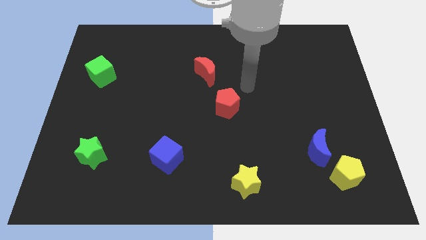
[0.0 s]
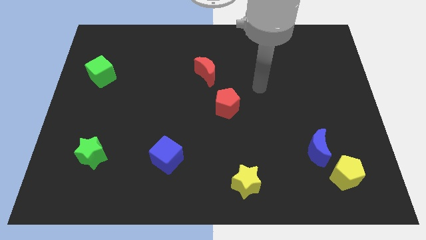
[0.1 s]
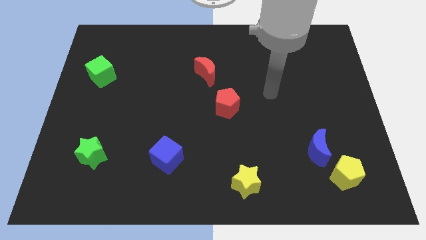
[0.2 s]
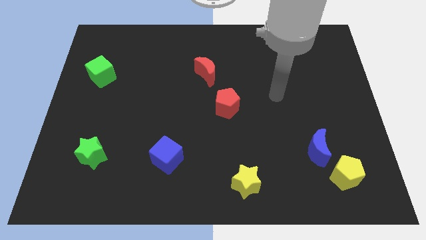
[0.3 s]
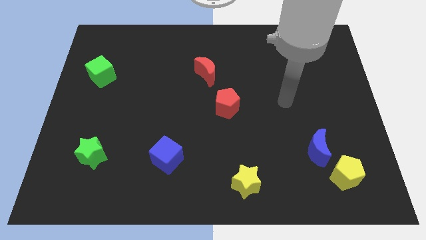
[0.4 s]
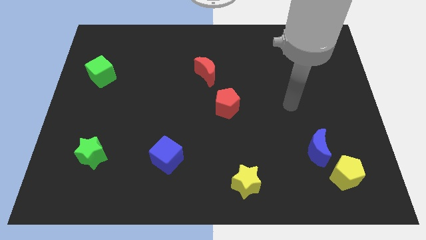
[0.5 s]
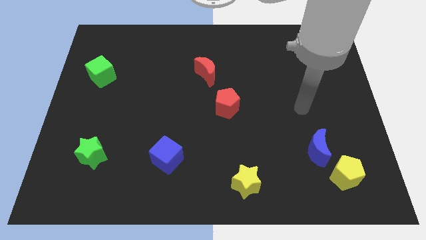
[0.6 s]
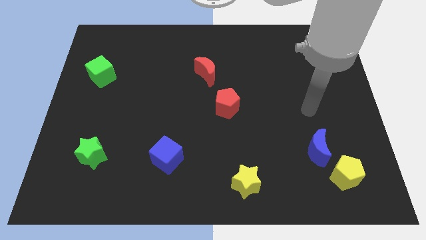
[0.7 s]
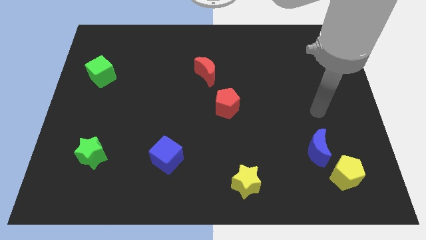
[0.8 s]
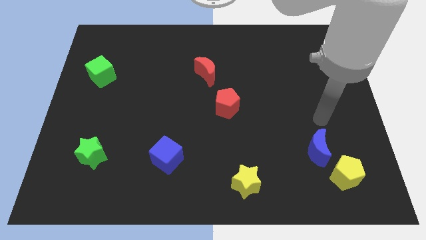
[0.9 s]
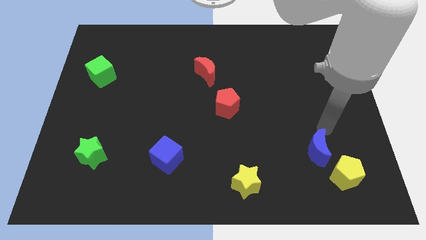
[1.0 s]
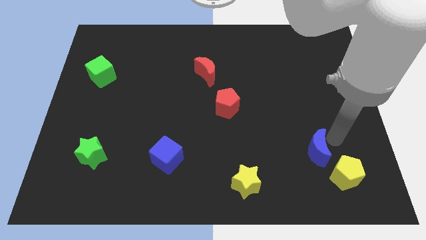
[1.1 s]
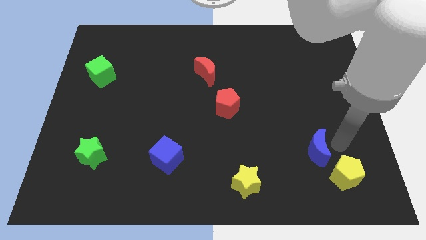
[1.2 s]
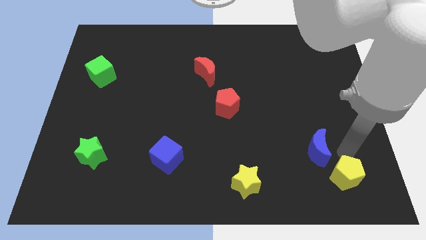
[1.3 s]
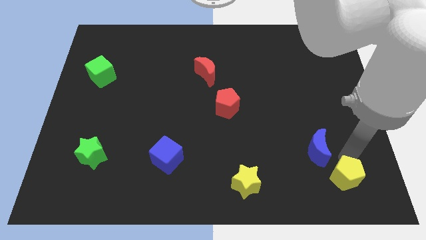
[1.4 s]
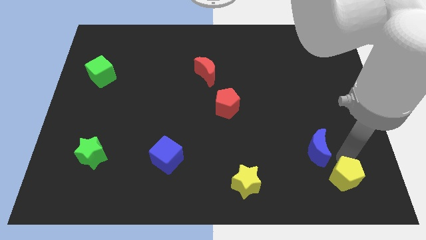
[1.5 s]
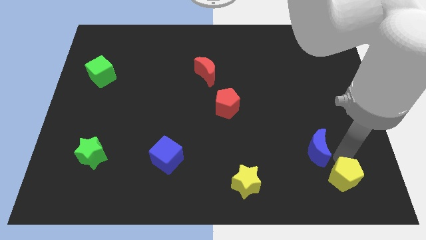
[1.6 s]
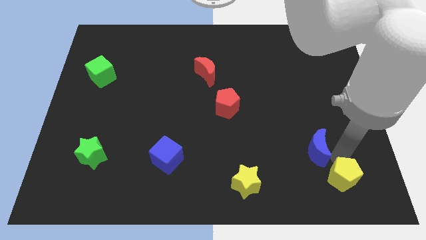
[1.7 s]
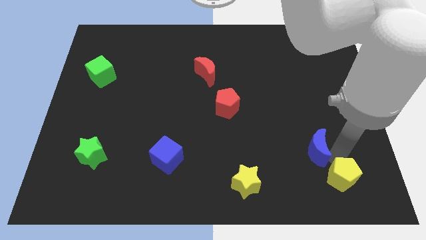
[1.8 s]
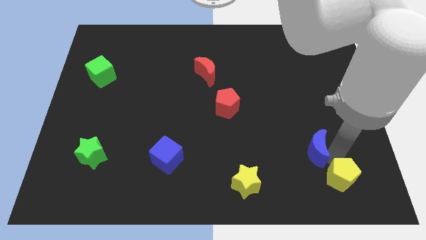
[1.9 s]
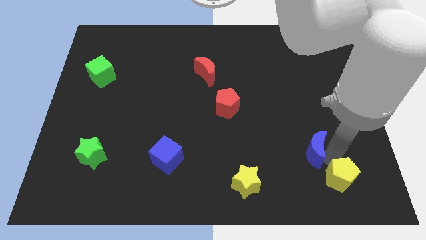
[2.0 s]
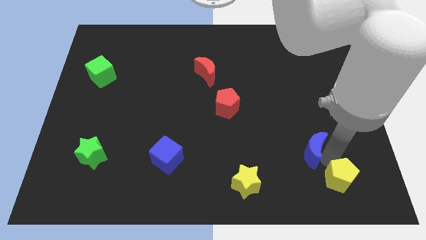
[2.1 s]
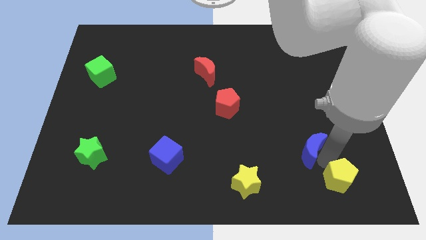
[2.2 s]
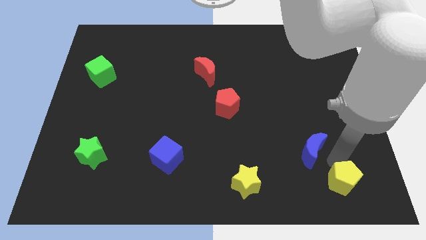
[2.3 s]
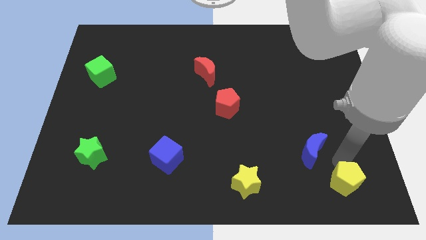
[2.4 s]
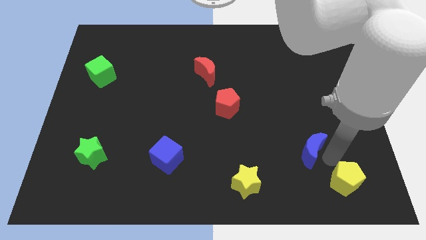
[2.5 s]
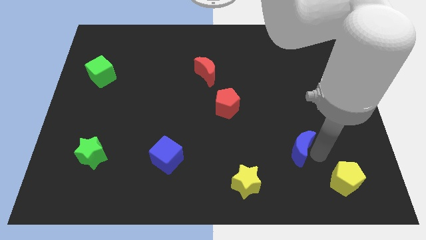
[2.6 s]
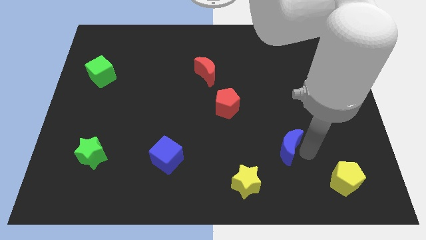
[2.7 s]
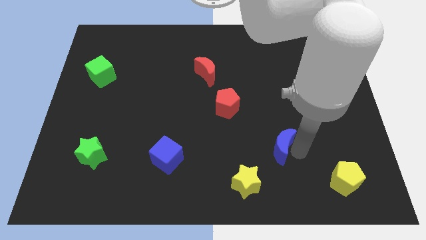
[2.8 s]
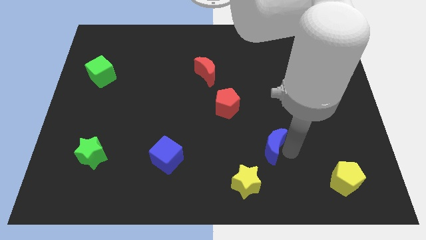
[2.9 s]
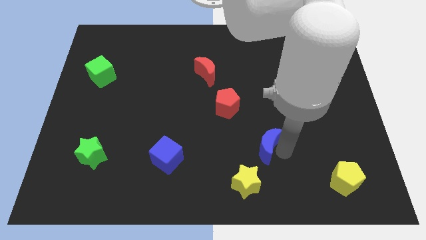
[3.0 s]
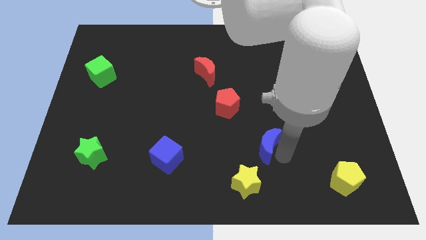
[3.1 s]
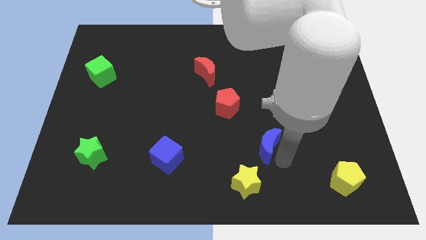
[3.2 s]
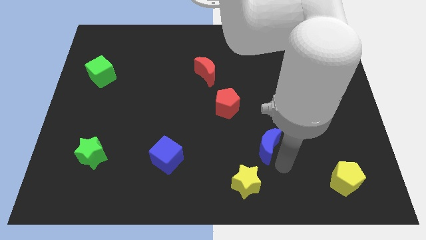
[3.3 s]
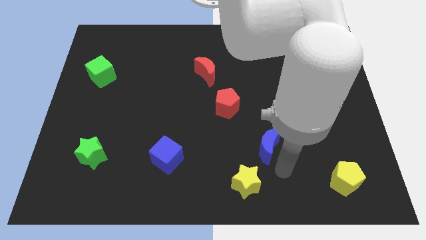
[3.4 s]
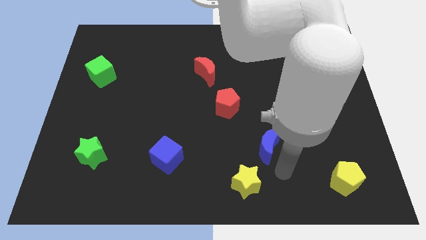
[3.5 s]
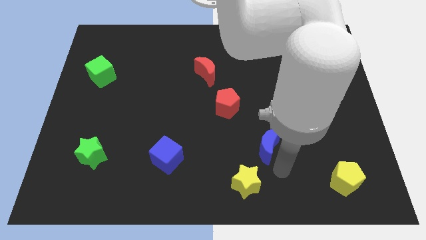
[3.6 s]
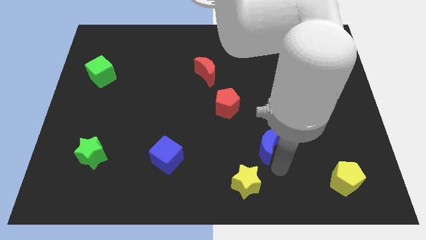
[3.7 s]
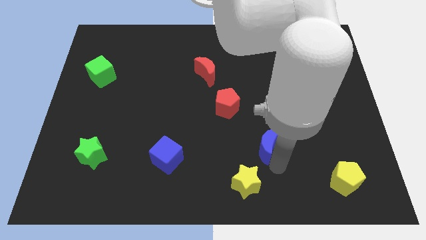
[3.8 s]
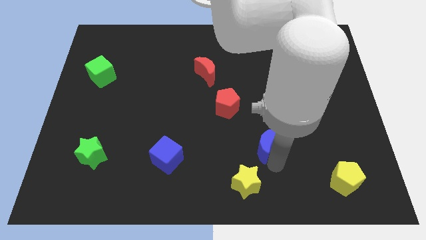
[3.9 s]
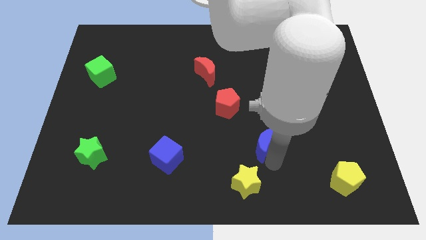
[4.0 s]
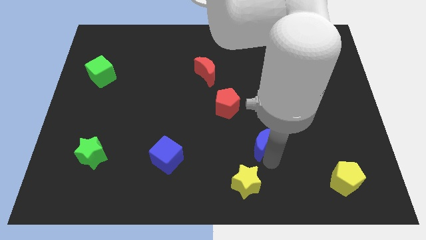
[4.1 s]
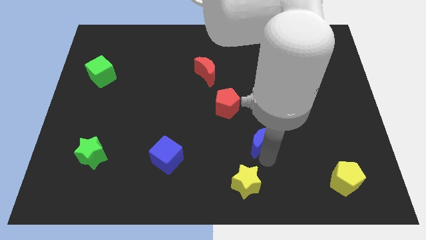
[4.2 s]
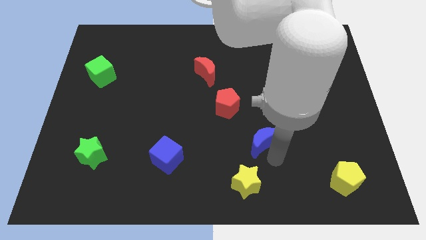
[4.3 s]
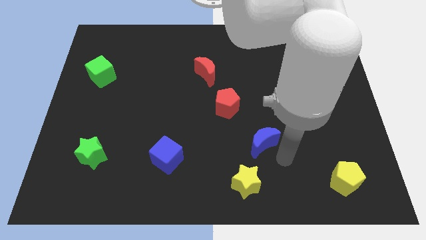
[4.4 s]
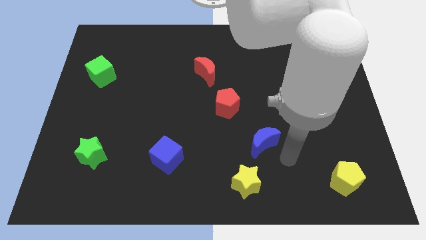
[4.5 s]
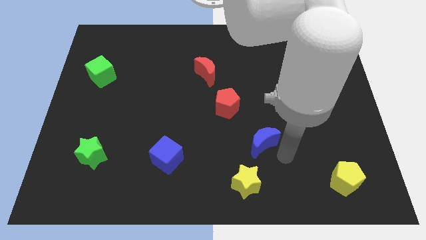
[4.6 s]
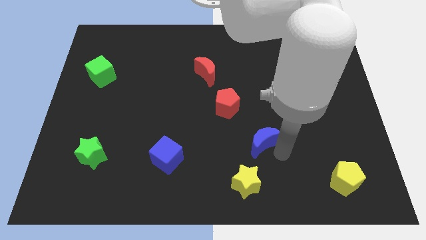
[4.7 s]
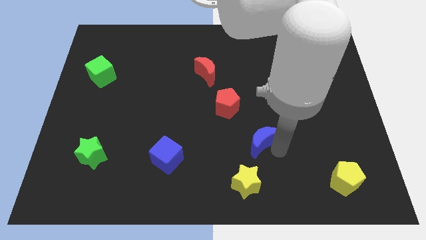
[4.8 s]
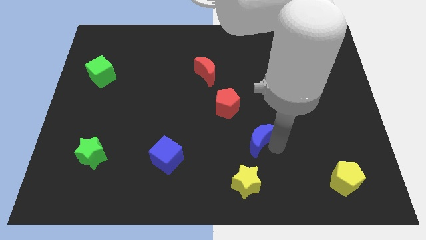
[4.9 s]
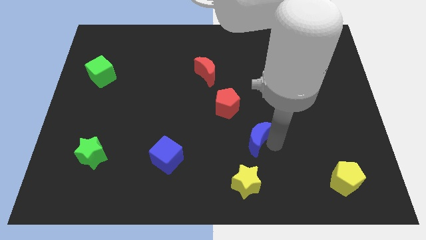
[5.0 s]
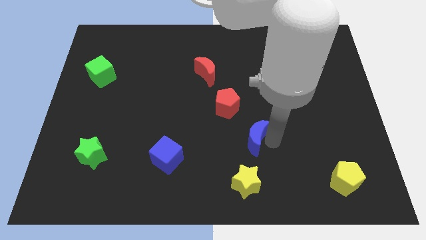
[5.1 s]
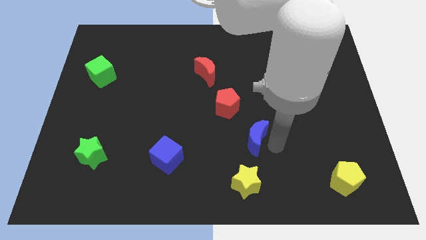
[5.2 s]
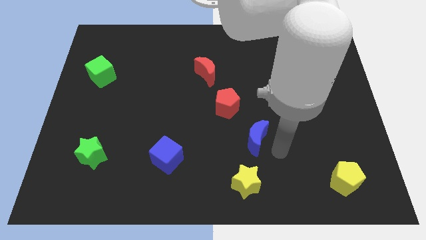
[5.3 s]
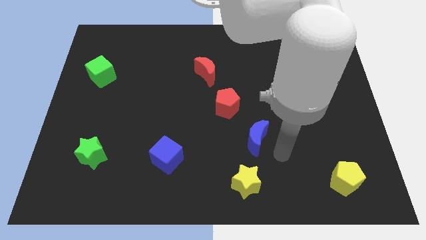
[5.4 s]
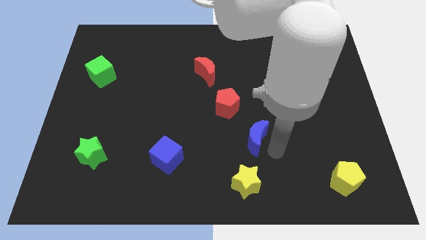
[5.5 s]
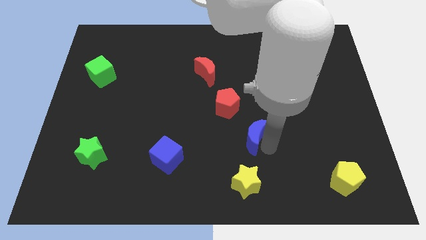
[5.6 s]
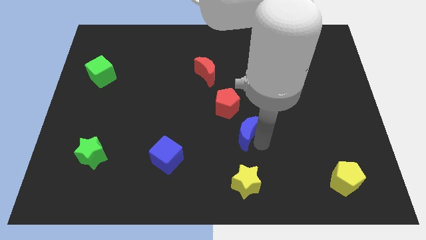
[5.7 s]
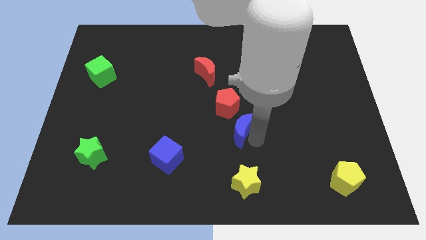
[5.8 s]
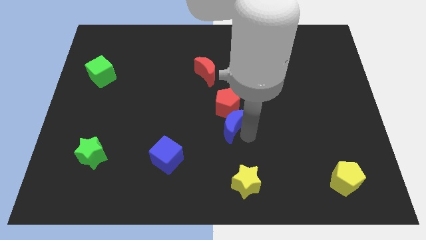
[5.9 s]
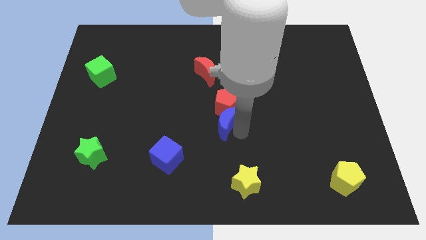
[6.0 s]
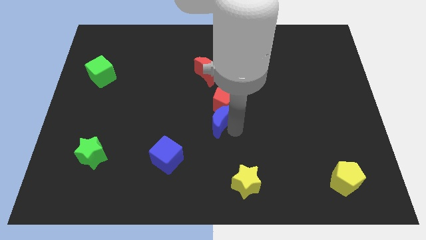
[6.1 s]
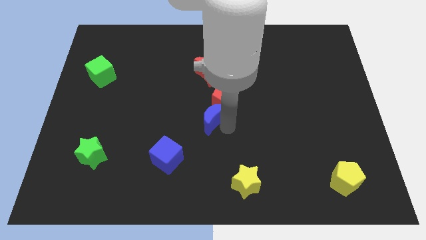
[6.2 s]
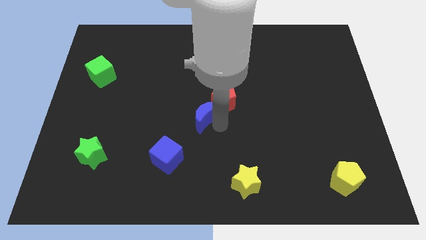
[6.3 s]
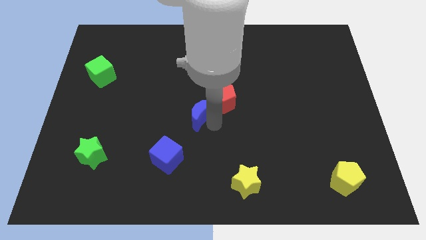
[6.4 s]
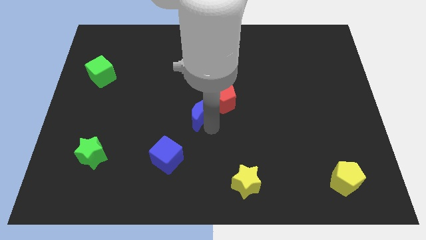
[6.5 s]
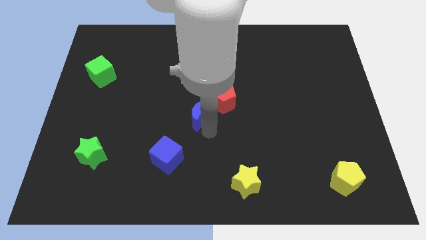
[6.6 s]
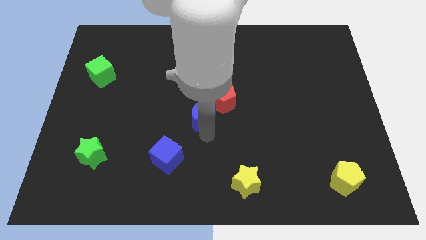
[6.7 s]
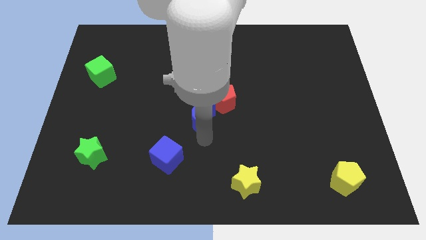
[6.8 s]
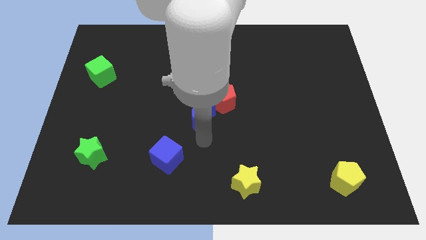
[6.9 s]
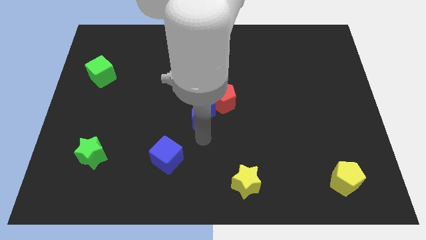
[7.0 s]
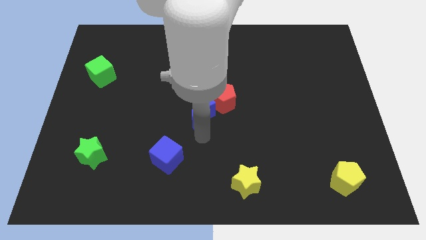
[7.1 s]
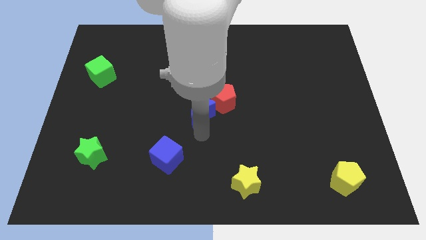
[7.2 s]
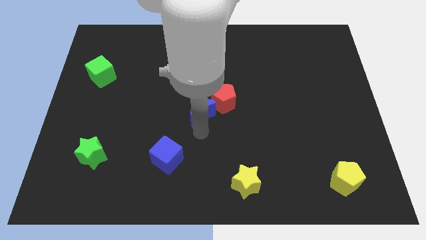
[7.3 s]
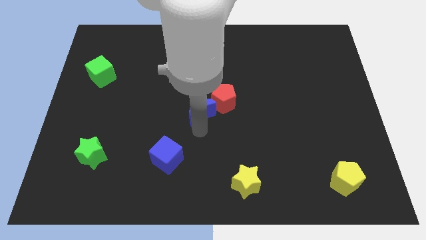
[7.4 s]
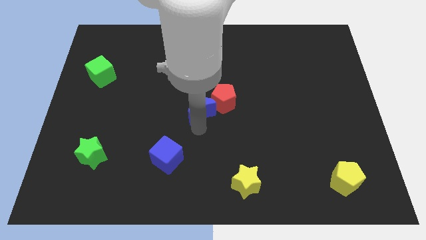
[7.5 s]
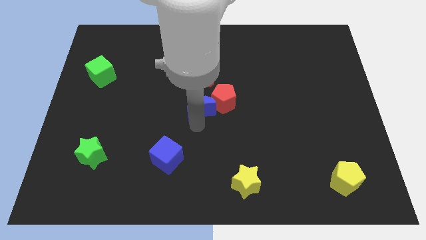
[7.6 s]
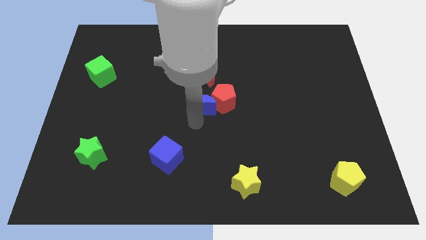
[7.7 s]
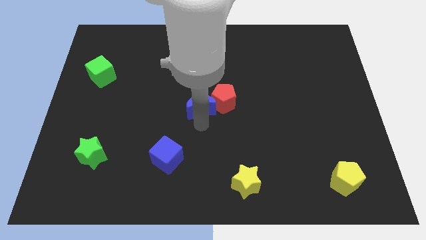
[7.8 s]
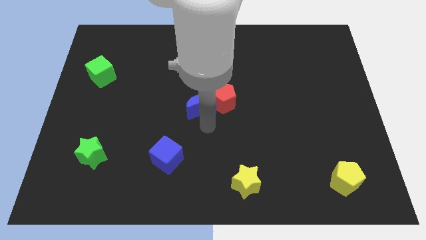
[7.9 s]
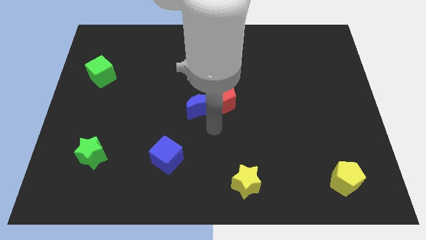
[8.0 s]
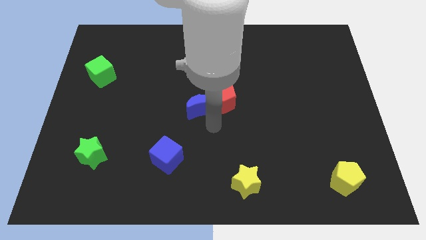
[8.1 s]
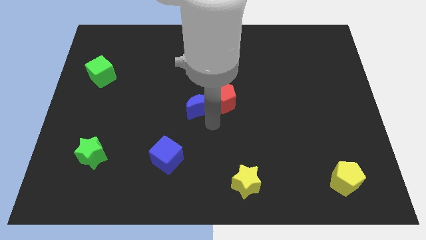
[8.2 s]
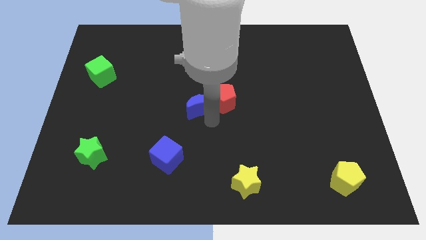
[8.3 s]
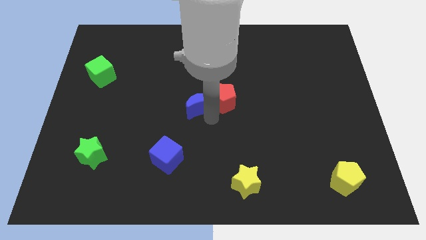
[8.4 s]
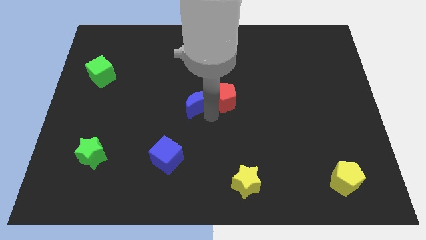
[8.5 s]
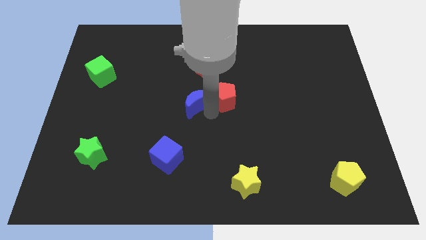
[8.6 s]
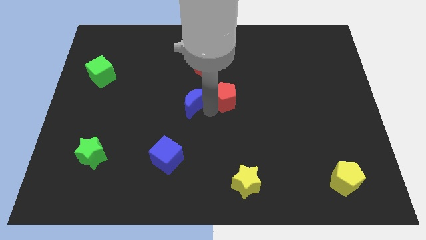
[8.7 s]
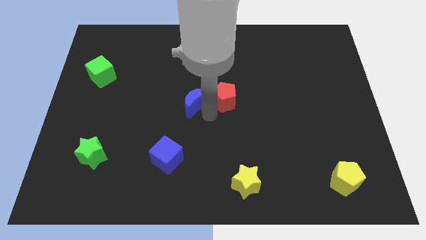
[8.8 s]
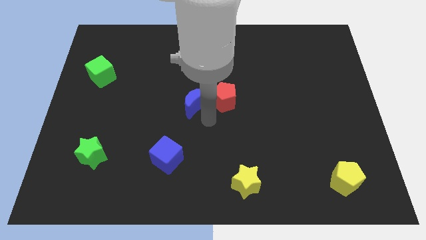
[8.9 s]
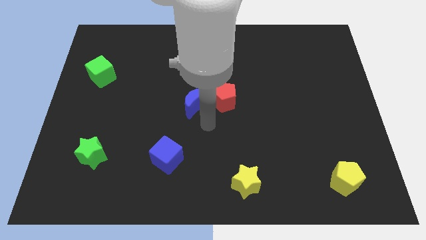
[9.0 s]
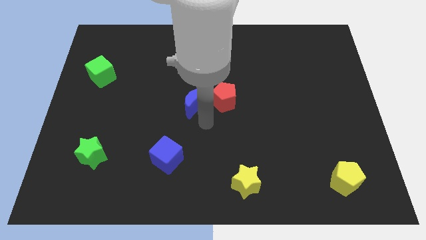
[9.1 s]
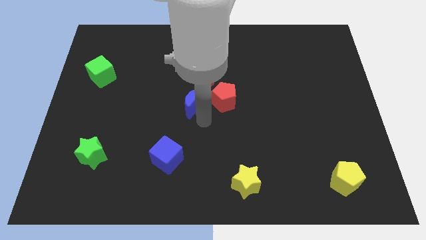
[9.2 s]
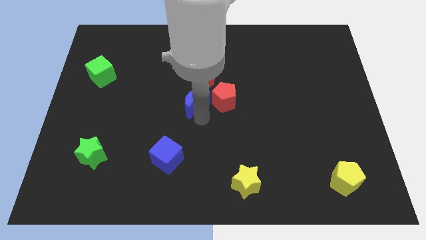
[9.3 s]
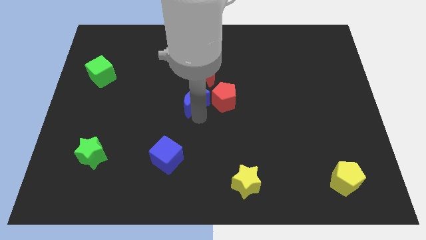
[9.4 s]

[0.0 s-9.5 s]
push the blue moon diagonally down and to the left of the red moon
